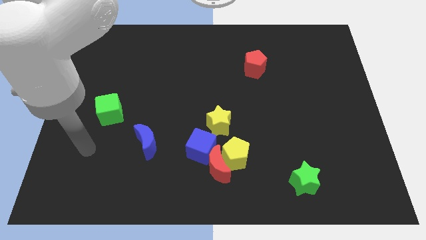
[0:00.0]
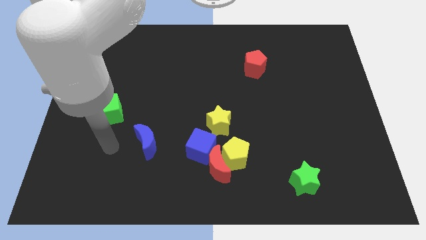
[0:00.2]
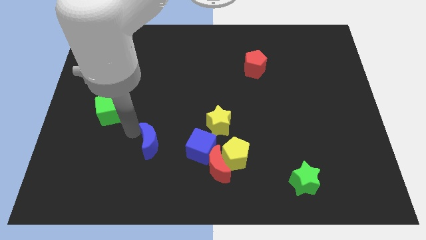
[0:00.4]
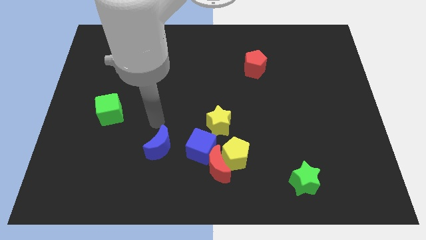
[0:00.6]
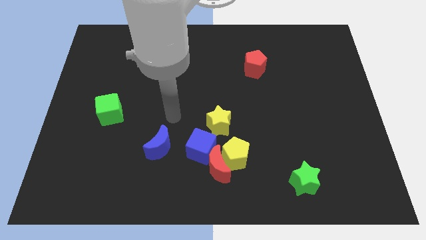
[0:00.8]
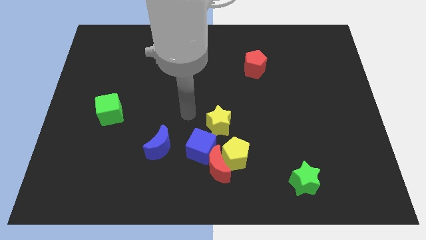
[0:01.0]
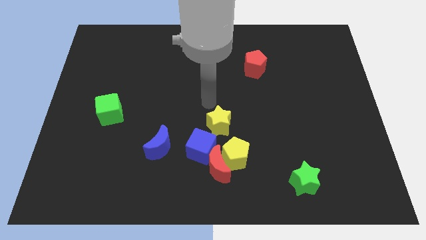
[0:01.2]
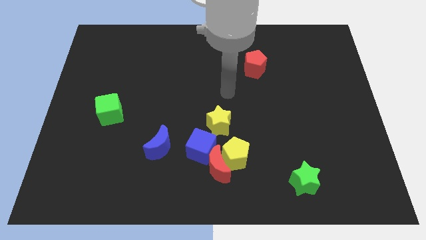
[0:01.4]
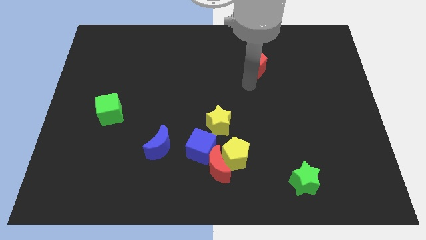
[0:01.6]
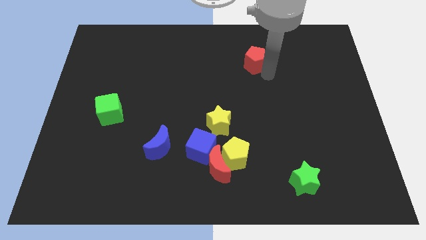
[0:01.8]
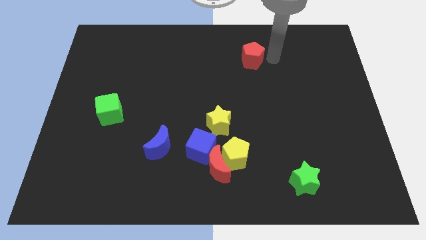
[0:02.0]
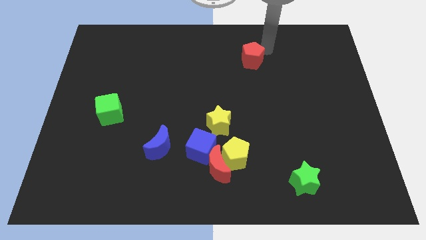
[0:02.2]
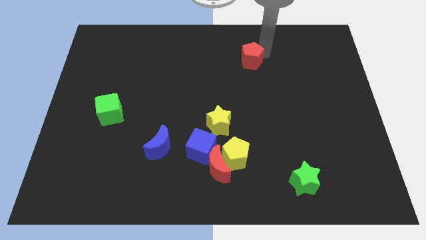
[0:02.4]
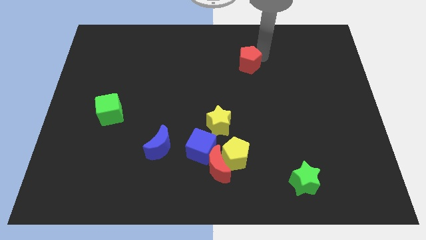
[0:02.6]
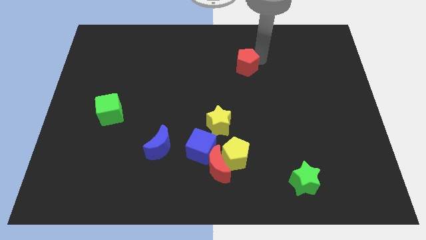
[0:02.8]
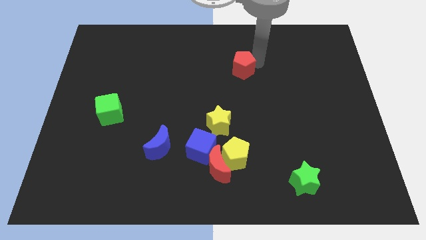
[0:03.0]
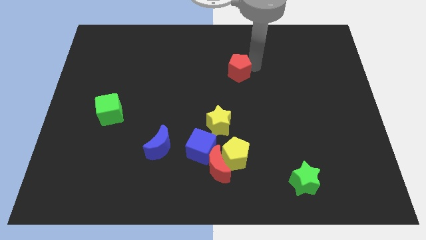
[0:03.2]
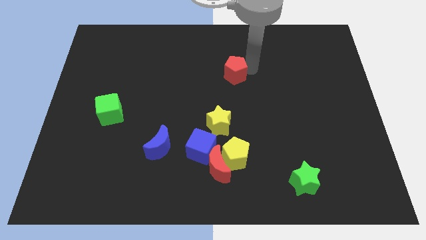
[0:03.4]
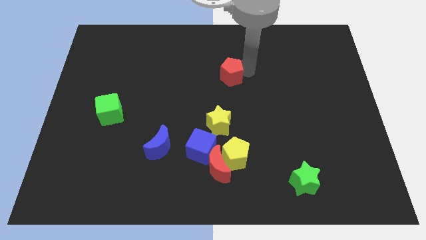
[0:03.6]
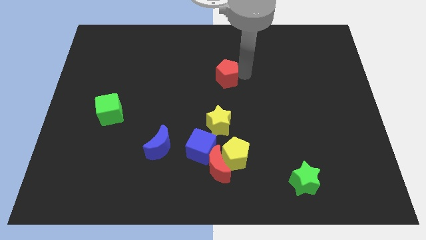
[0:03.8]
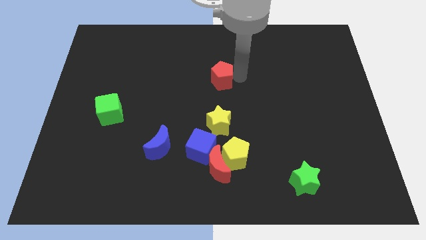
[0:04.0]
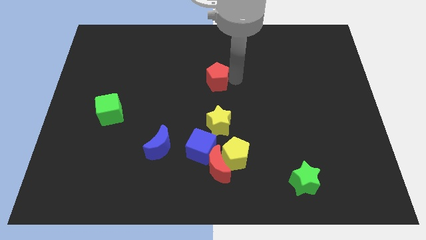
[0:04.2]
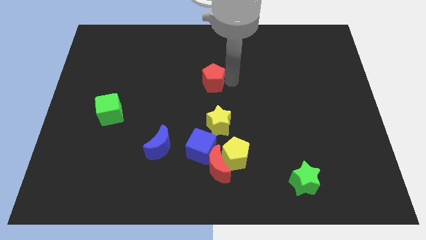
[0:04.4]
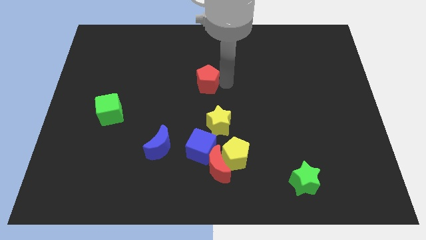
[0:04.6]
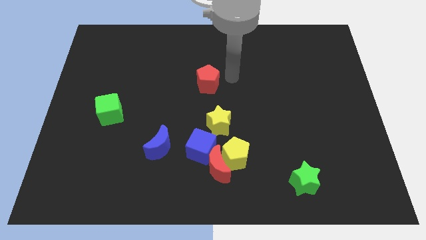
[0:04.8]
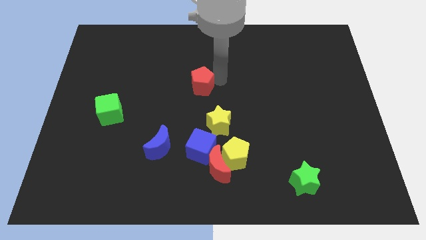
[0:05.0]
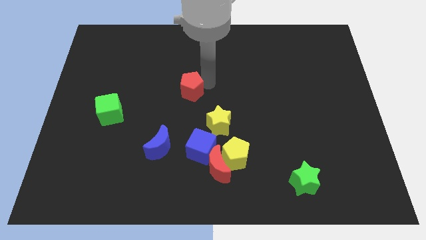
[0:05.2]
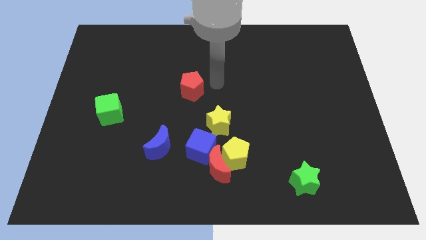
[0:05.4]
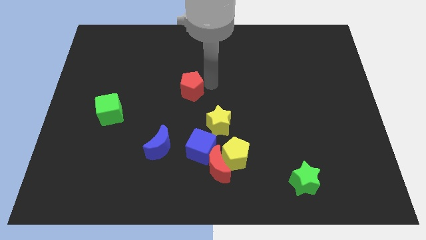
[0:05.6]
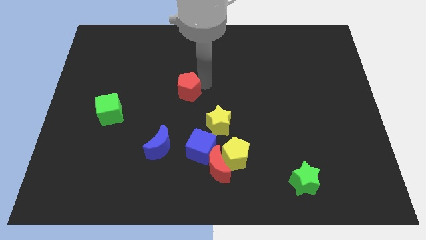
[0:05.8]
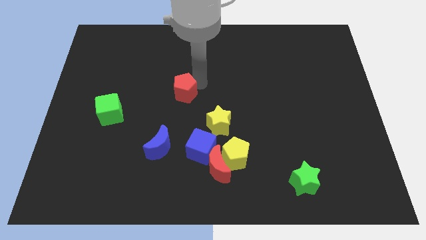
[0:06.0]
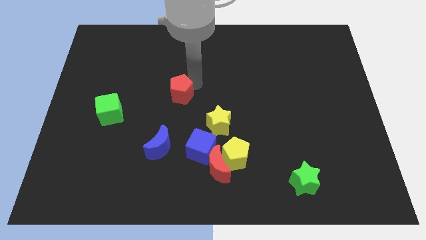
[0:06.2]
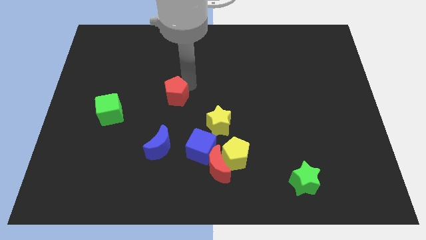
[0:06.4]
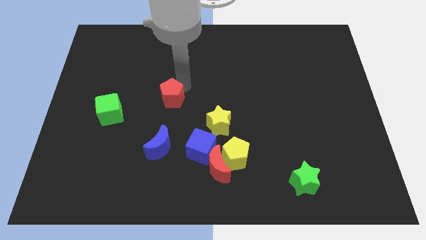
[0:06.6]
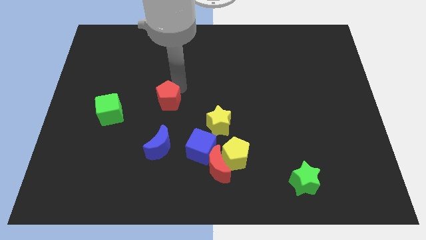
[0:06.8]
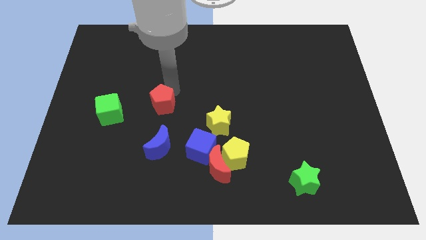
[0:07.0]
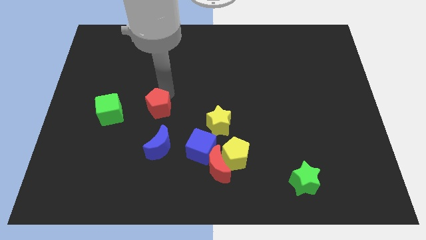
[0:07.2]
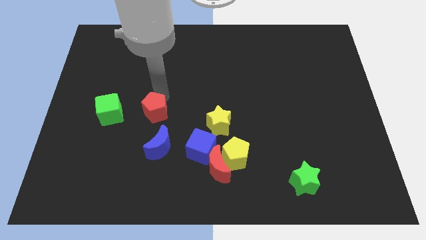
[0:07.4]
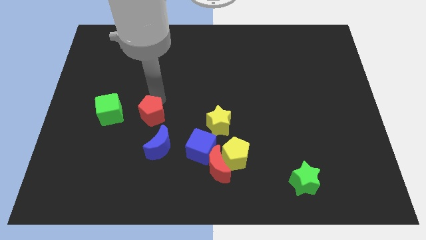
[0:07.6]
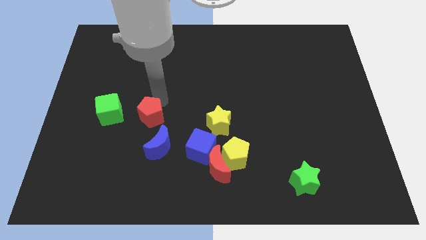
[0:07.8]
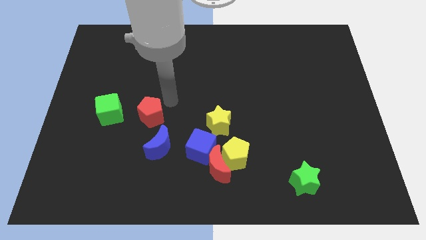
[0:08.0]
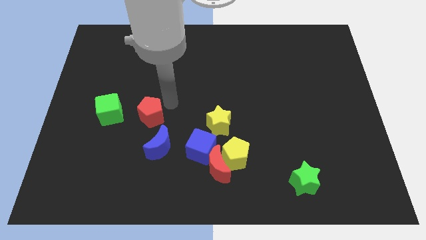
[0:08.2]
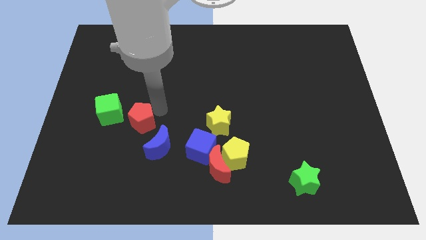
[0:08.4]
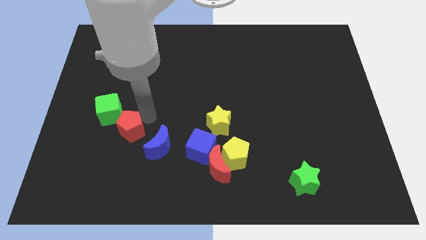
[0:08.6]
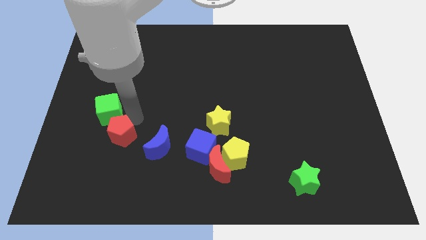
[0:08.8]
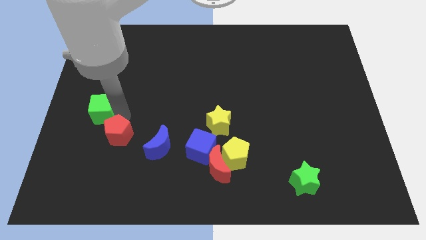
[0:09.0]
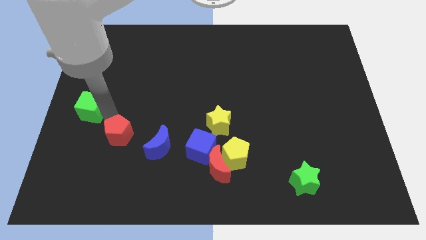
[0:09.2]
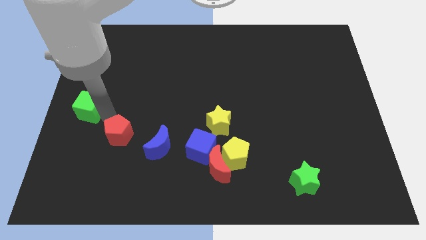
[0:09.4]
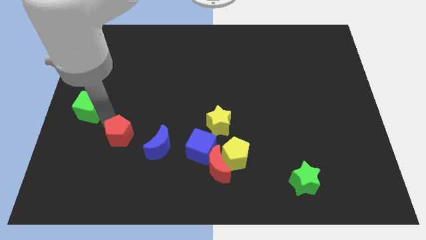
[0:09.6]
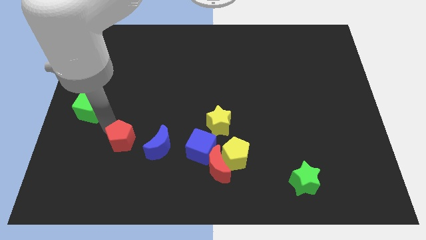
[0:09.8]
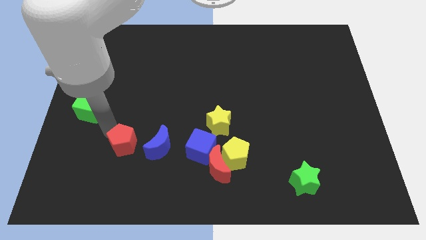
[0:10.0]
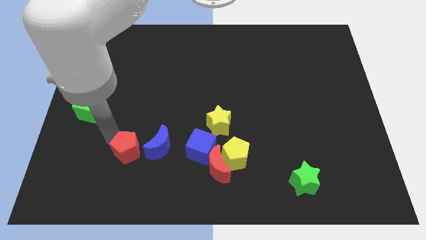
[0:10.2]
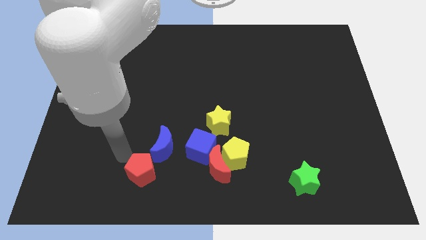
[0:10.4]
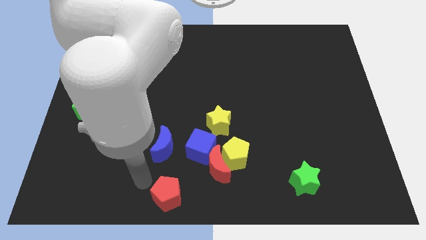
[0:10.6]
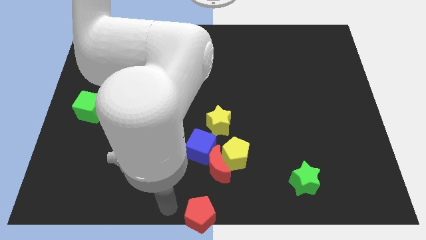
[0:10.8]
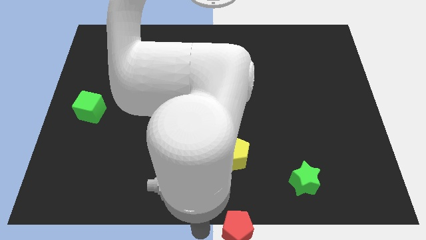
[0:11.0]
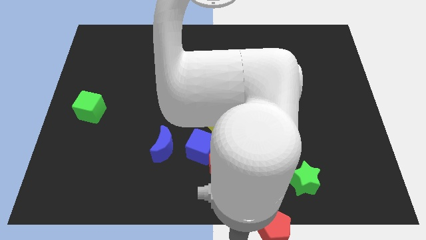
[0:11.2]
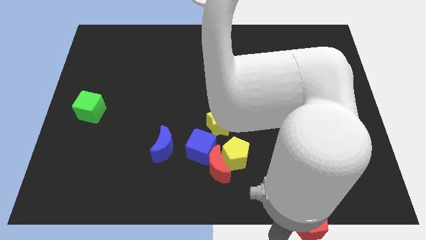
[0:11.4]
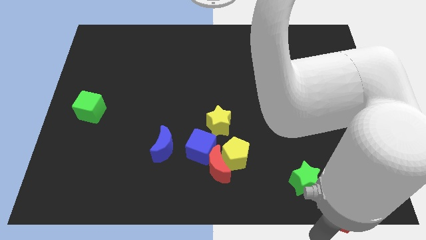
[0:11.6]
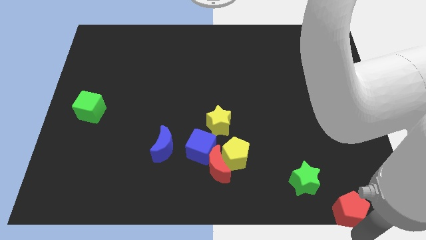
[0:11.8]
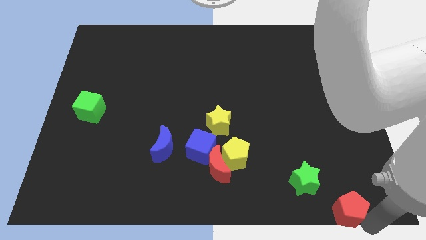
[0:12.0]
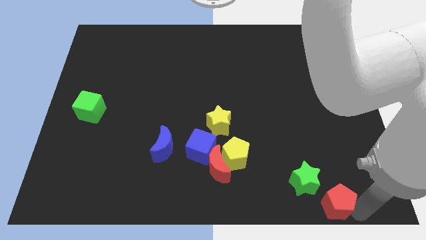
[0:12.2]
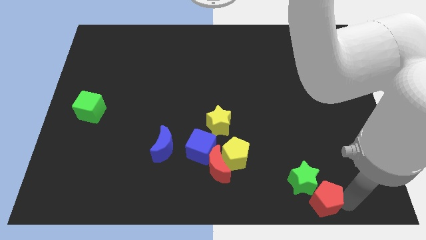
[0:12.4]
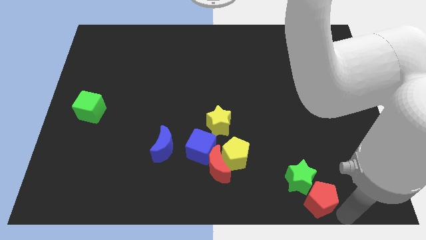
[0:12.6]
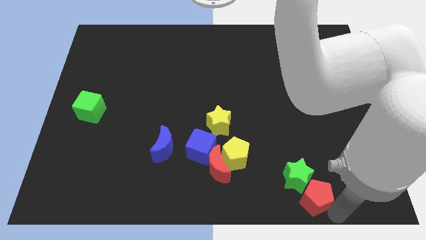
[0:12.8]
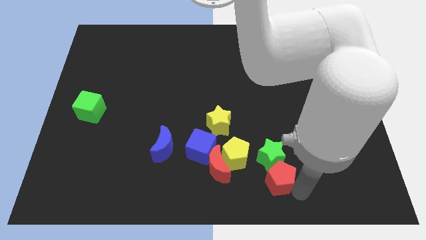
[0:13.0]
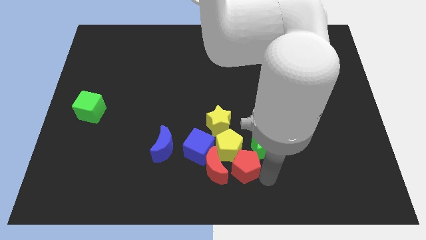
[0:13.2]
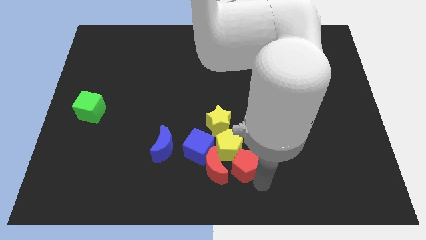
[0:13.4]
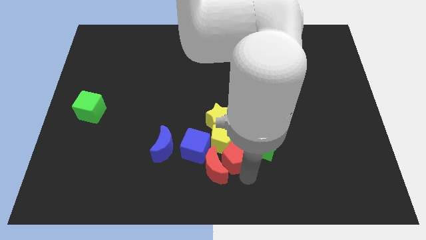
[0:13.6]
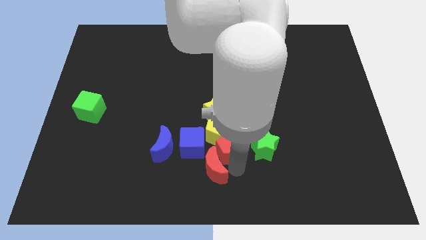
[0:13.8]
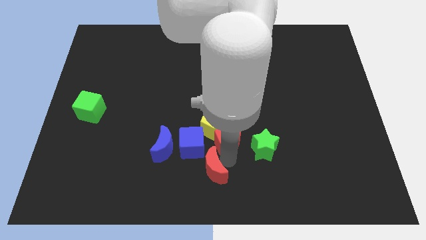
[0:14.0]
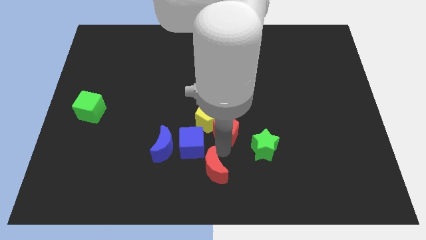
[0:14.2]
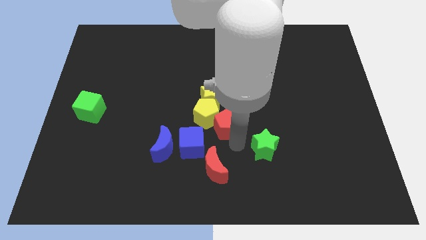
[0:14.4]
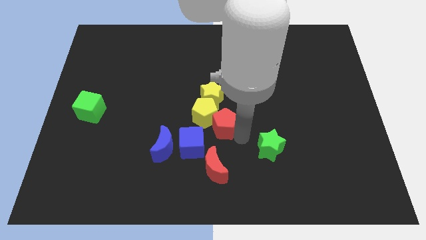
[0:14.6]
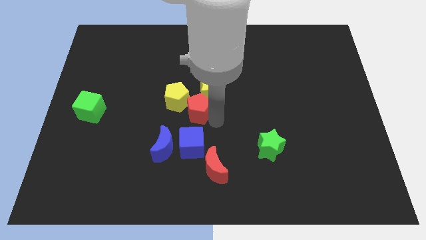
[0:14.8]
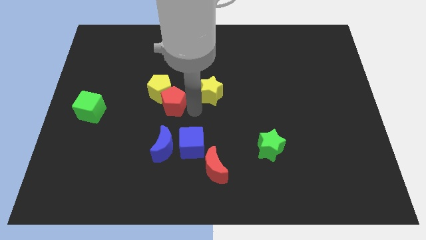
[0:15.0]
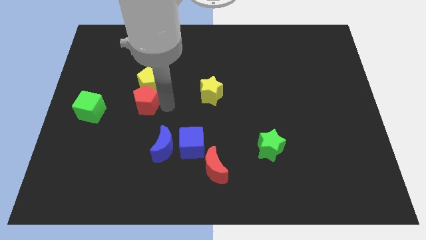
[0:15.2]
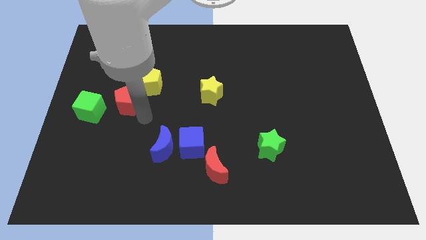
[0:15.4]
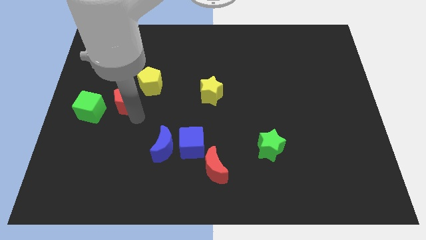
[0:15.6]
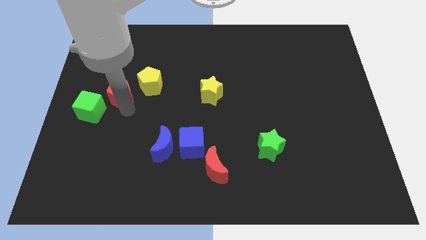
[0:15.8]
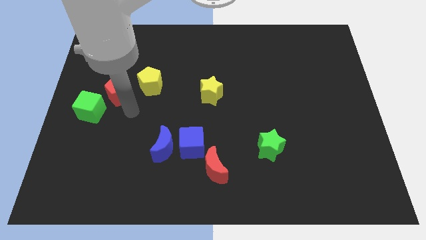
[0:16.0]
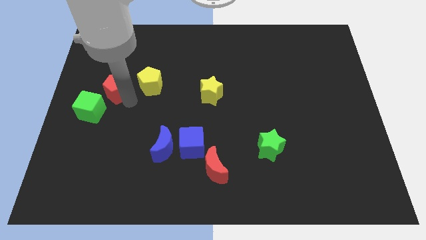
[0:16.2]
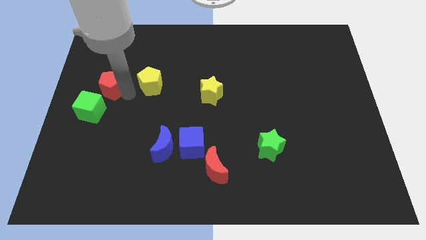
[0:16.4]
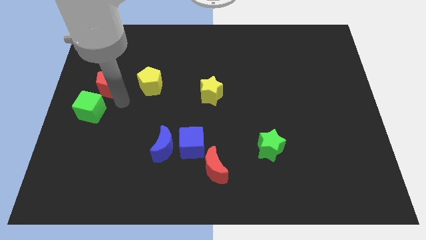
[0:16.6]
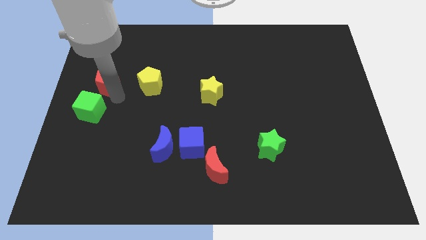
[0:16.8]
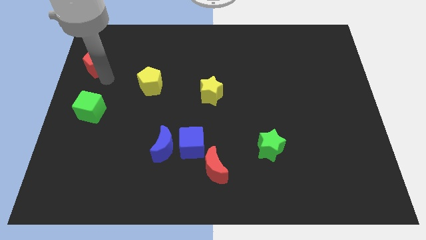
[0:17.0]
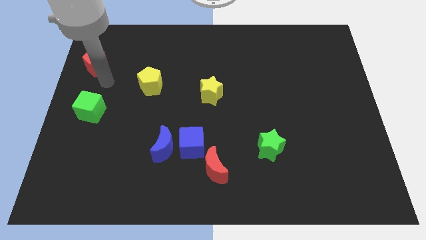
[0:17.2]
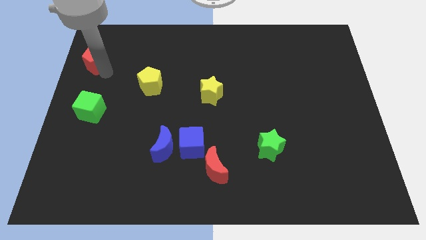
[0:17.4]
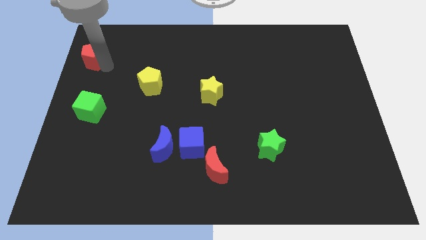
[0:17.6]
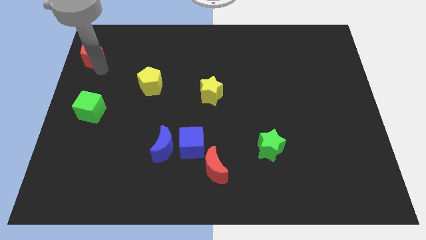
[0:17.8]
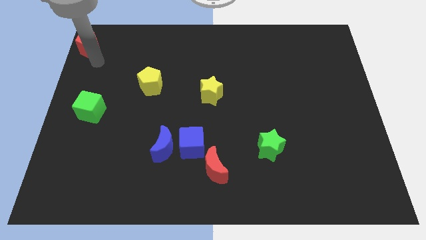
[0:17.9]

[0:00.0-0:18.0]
slide the red pentagon to the upper left corner
